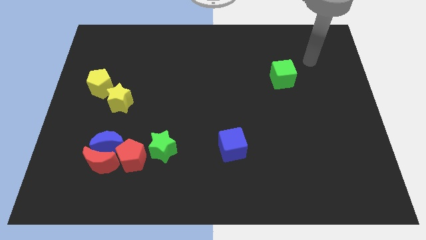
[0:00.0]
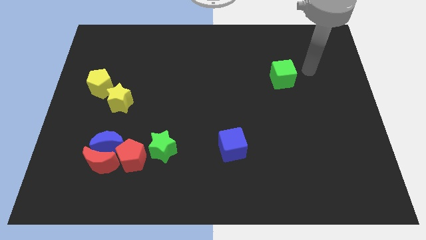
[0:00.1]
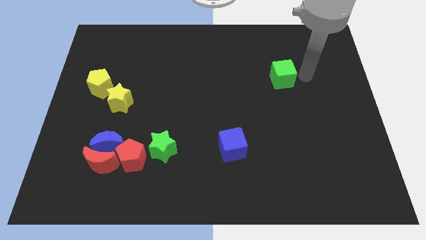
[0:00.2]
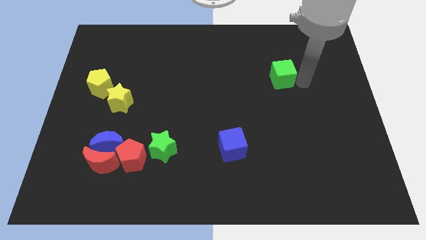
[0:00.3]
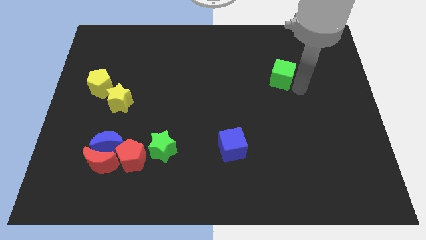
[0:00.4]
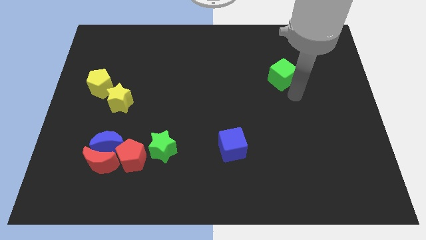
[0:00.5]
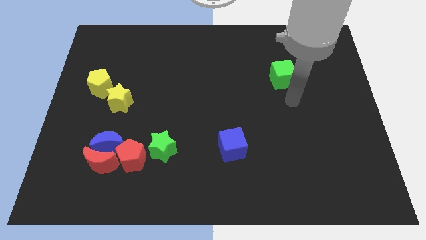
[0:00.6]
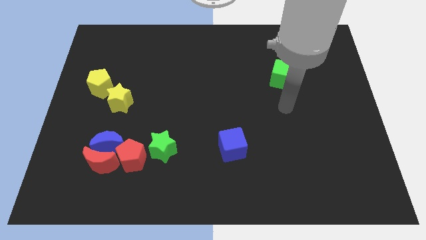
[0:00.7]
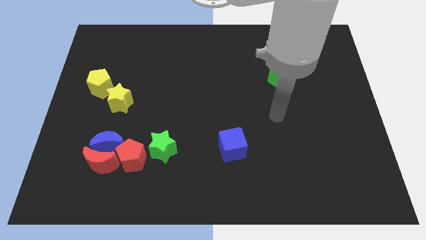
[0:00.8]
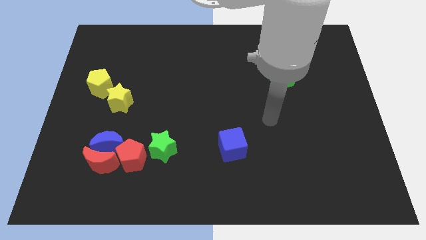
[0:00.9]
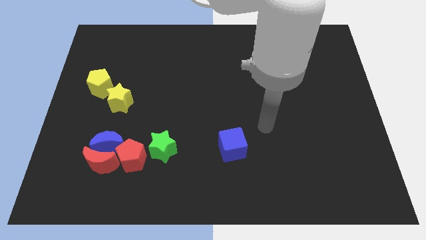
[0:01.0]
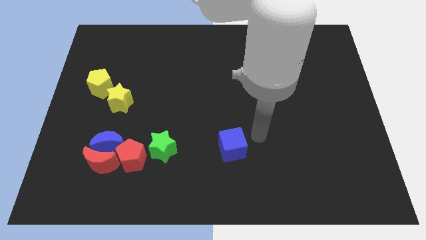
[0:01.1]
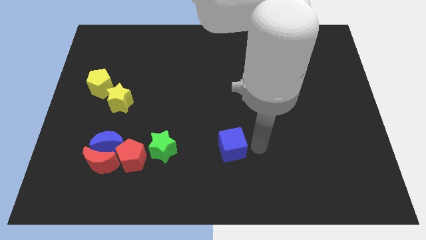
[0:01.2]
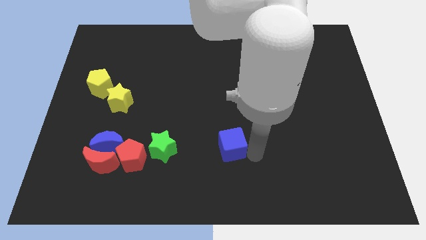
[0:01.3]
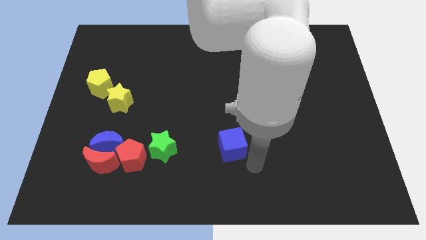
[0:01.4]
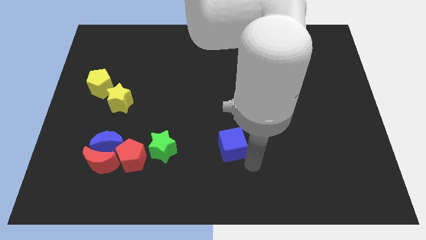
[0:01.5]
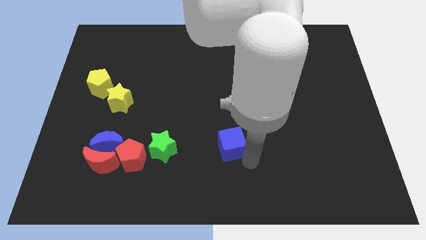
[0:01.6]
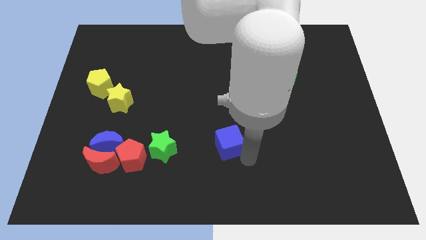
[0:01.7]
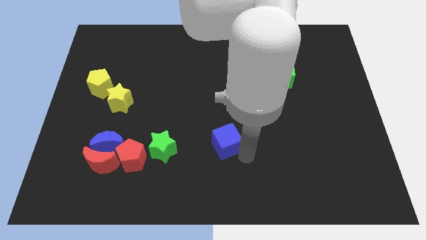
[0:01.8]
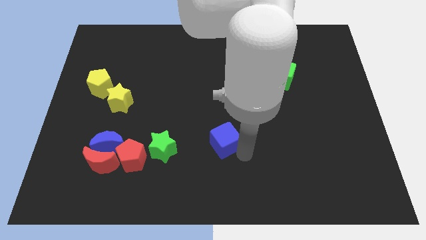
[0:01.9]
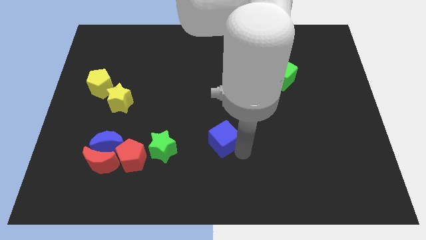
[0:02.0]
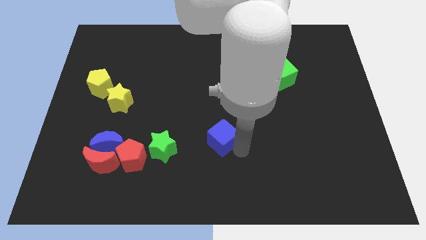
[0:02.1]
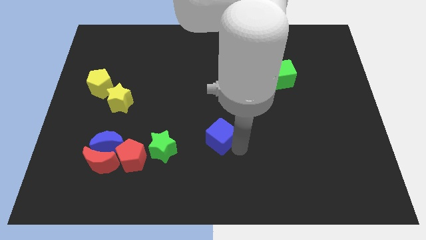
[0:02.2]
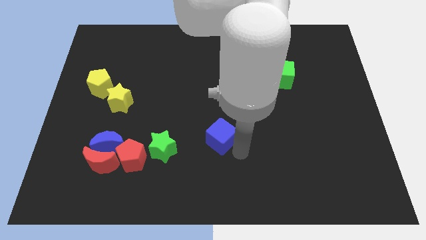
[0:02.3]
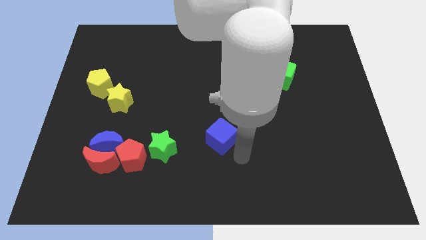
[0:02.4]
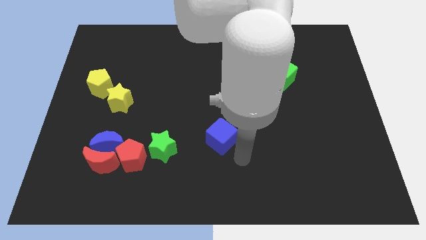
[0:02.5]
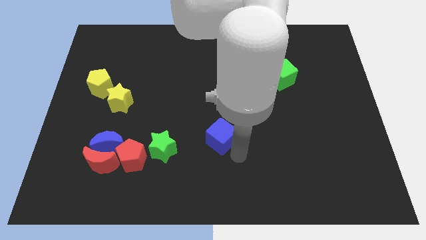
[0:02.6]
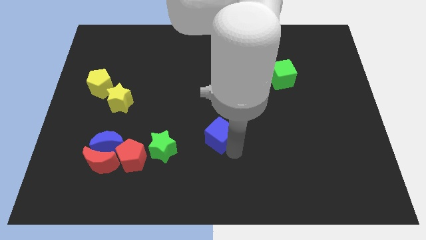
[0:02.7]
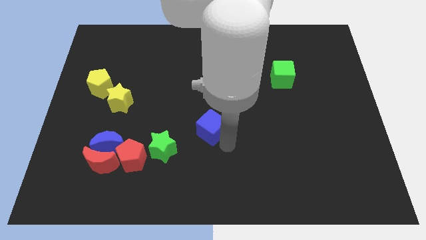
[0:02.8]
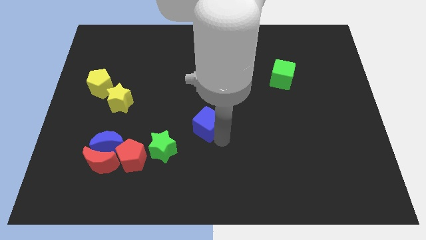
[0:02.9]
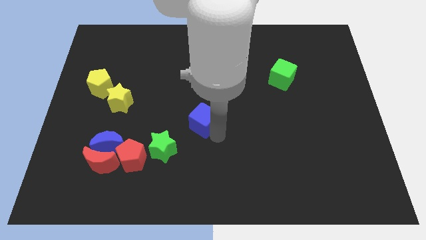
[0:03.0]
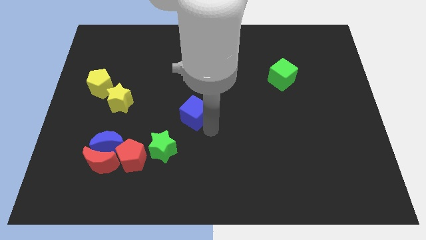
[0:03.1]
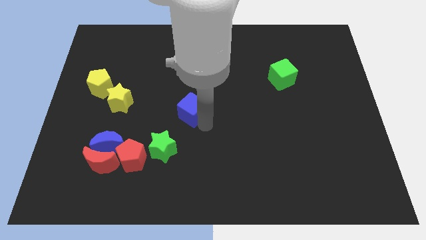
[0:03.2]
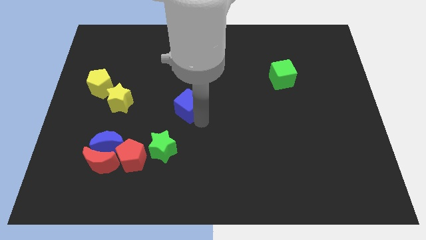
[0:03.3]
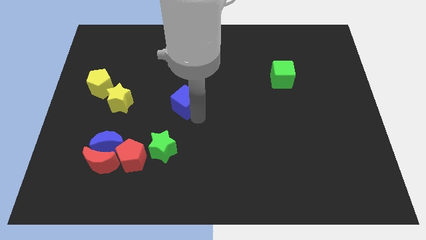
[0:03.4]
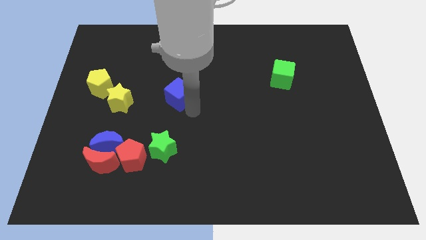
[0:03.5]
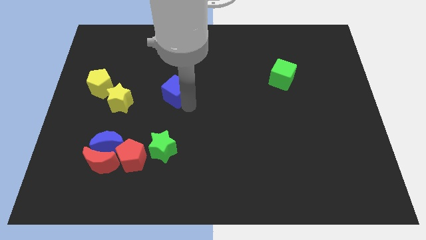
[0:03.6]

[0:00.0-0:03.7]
push the blue cube upwards and to the left

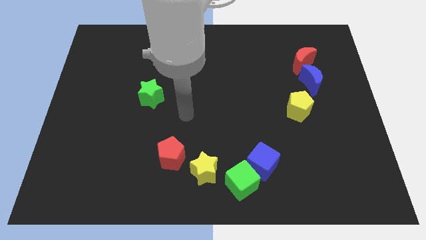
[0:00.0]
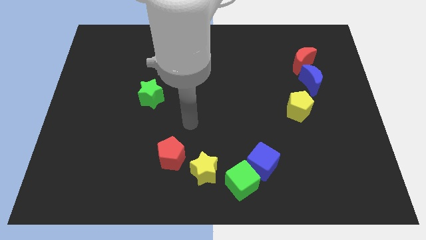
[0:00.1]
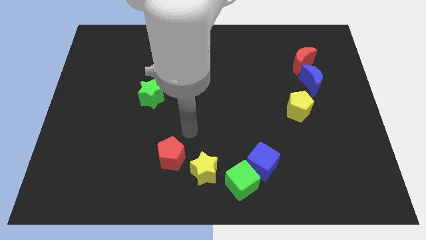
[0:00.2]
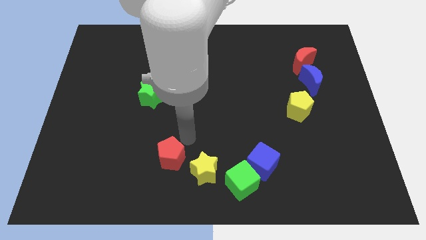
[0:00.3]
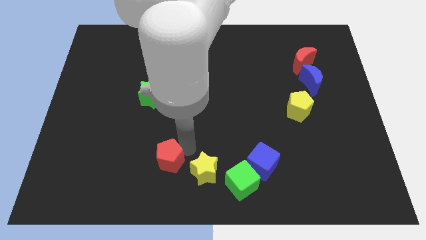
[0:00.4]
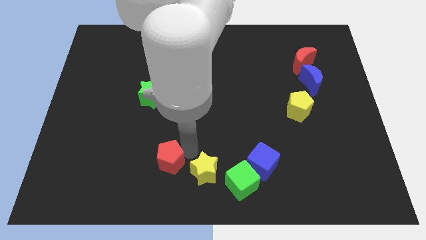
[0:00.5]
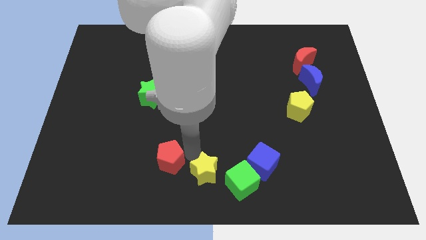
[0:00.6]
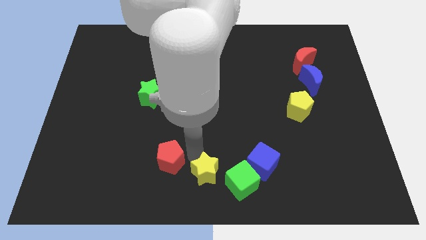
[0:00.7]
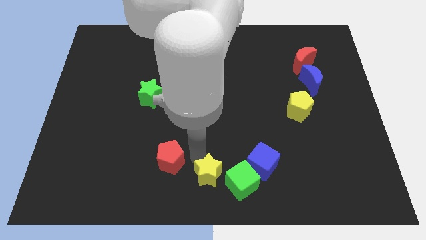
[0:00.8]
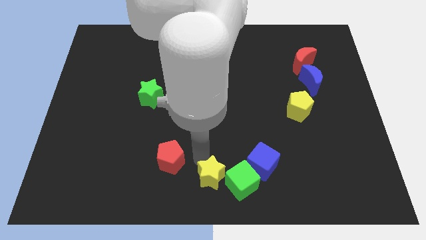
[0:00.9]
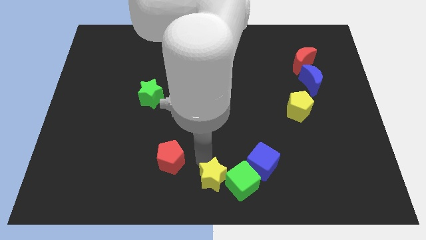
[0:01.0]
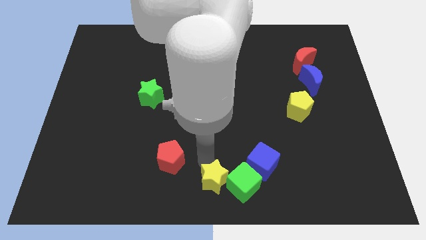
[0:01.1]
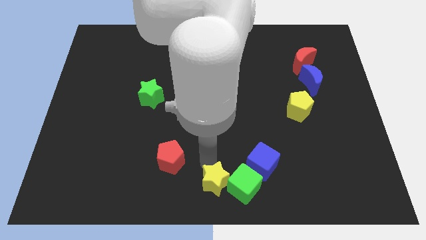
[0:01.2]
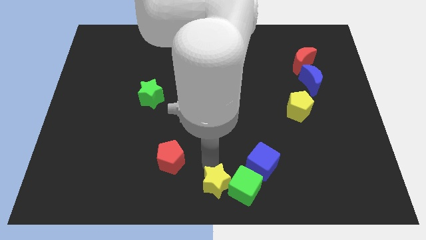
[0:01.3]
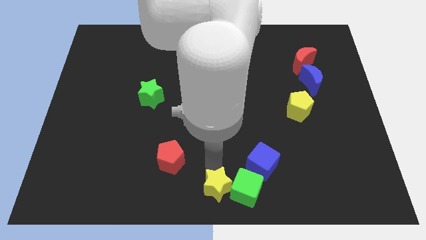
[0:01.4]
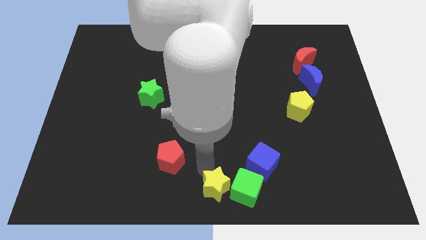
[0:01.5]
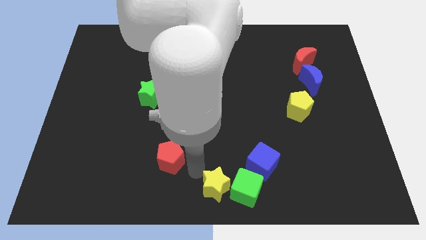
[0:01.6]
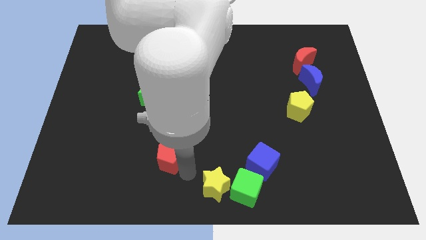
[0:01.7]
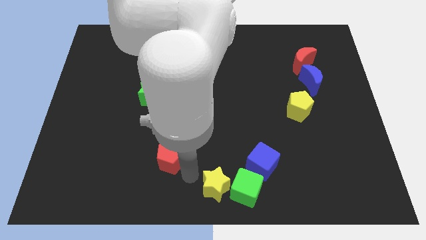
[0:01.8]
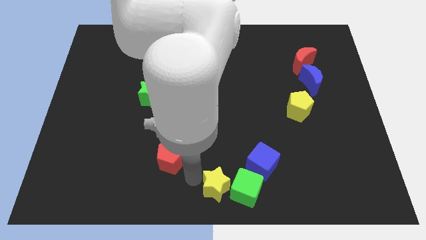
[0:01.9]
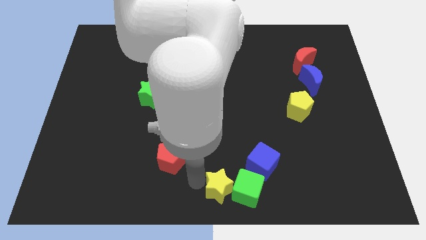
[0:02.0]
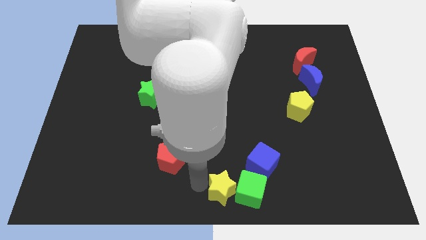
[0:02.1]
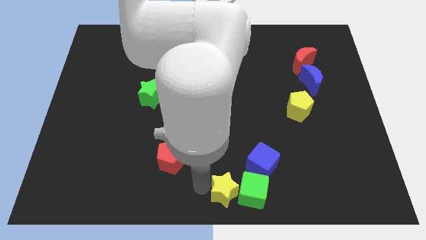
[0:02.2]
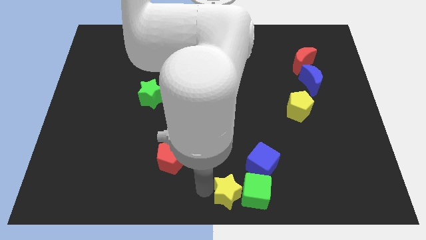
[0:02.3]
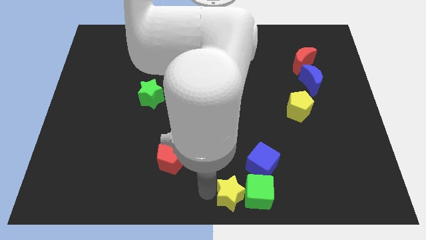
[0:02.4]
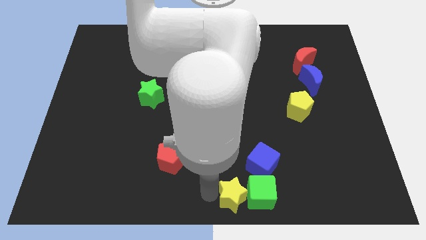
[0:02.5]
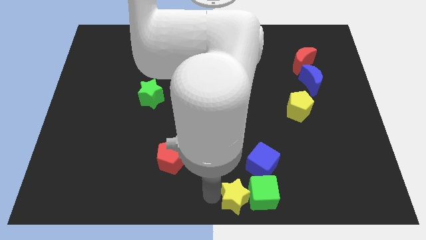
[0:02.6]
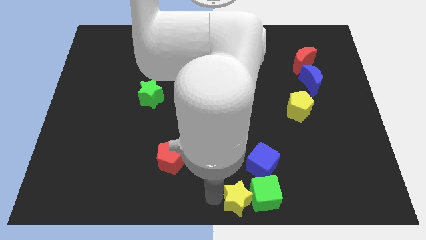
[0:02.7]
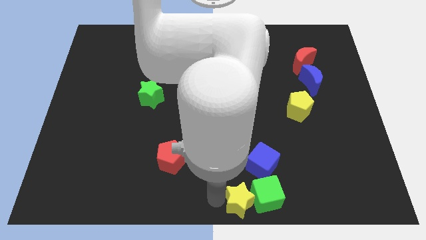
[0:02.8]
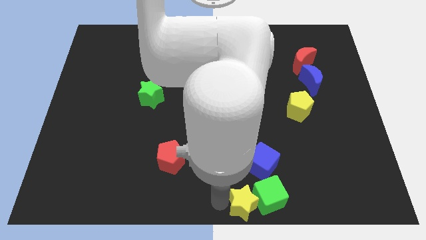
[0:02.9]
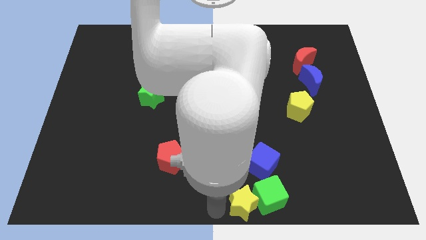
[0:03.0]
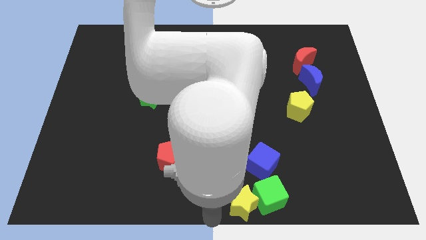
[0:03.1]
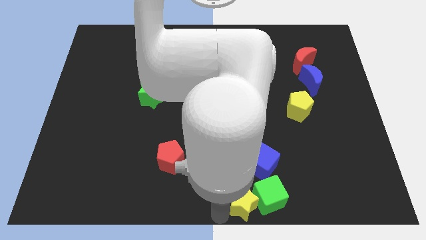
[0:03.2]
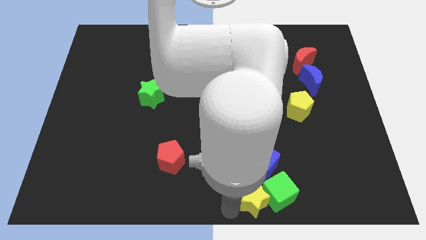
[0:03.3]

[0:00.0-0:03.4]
move the yellow star a little right

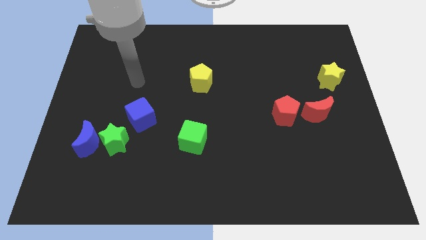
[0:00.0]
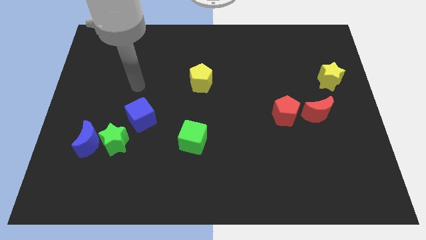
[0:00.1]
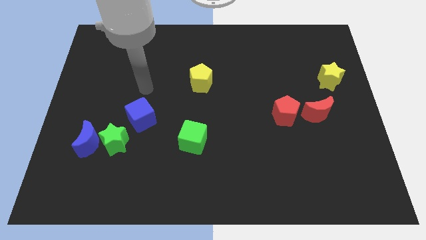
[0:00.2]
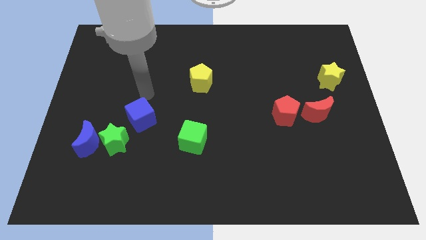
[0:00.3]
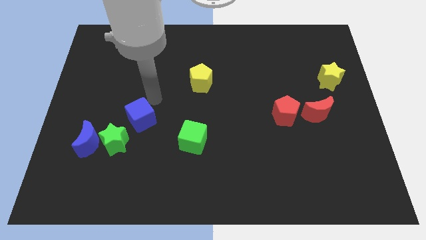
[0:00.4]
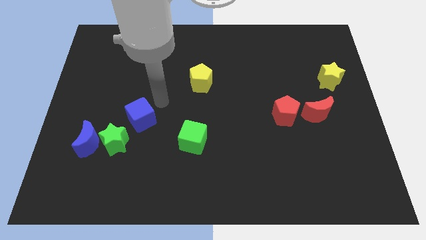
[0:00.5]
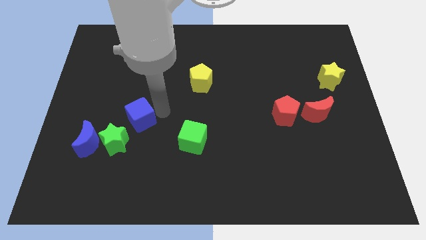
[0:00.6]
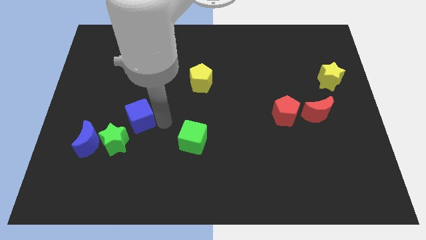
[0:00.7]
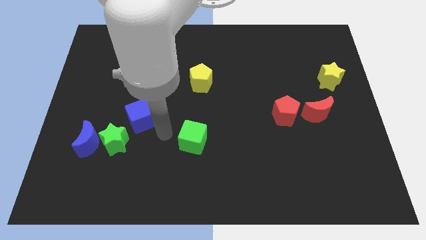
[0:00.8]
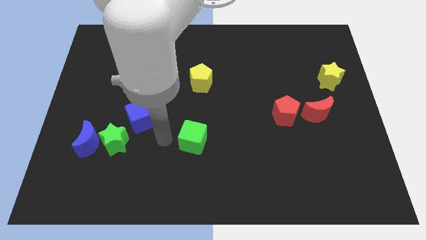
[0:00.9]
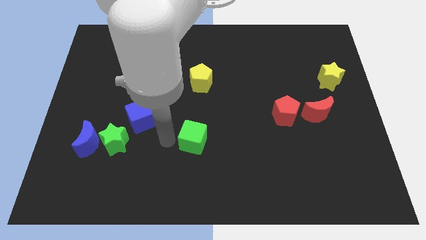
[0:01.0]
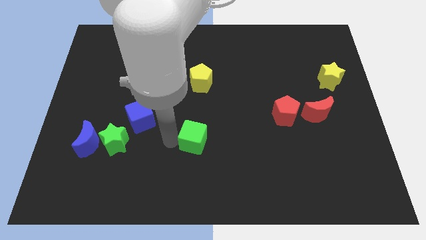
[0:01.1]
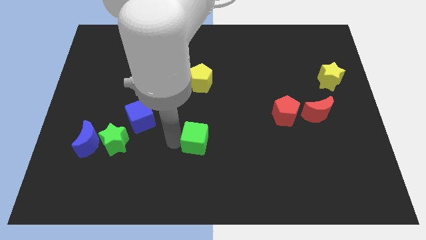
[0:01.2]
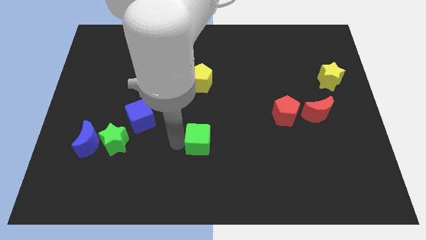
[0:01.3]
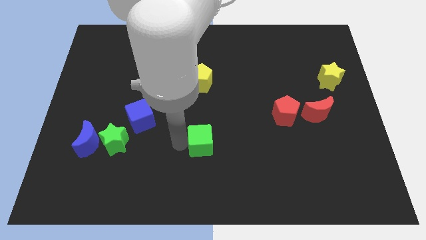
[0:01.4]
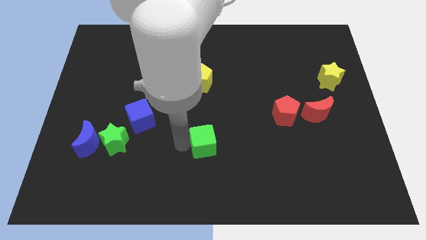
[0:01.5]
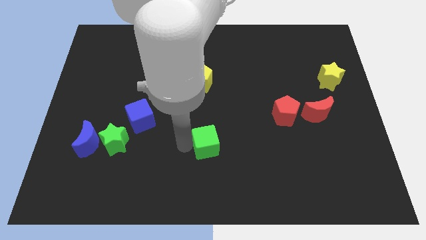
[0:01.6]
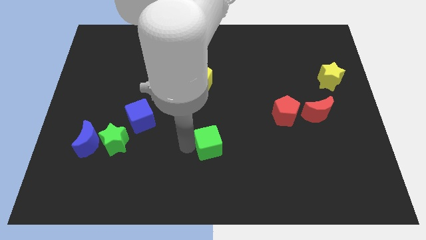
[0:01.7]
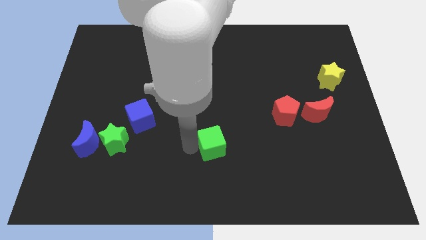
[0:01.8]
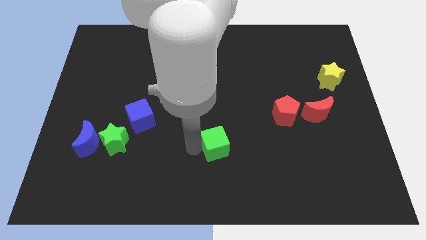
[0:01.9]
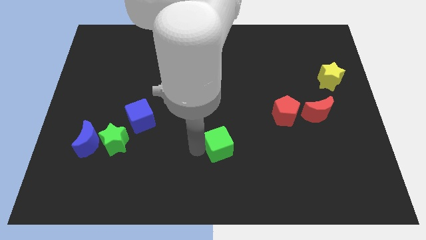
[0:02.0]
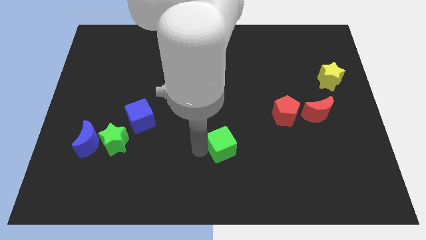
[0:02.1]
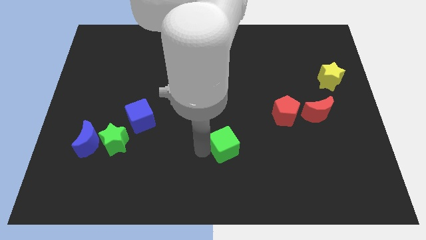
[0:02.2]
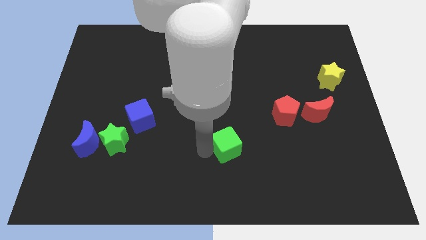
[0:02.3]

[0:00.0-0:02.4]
slightly slide the green cube right
